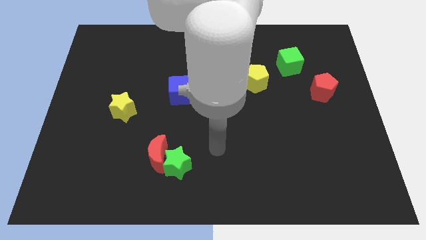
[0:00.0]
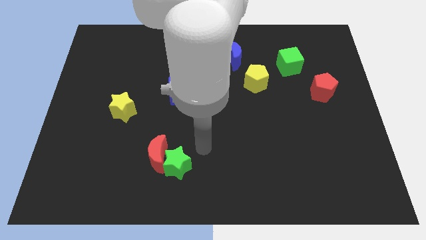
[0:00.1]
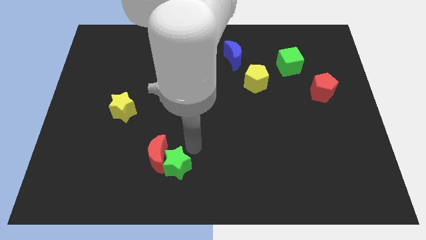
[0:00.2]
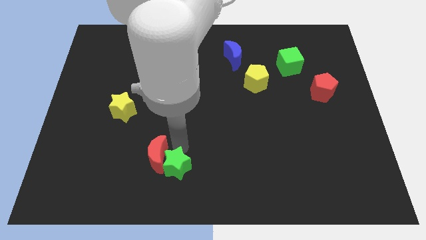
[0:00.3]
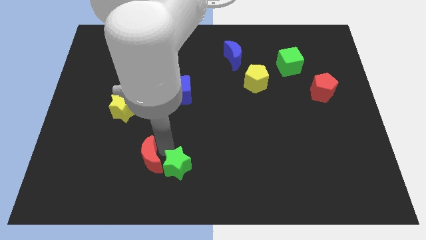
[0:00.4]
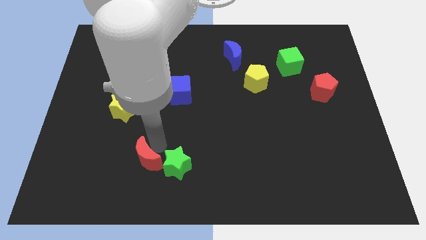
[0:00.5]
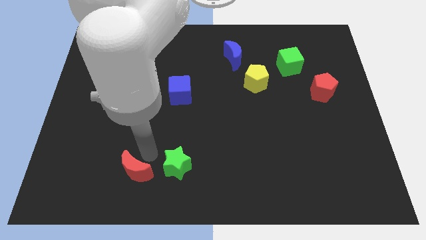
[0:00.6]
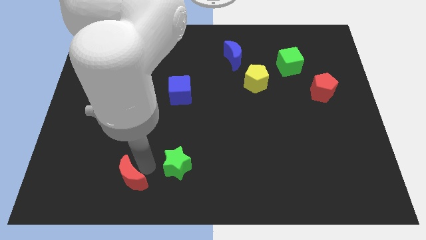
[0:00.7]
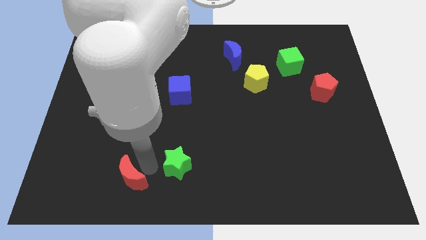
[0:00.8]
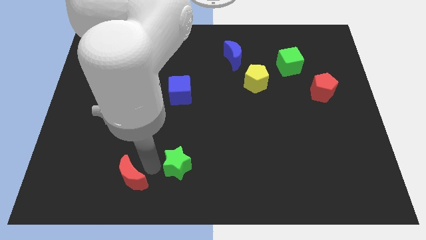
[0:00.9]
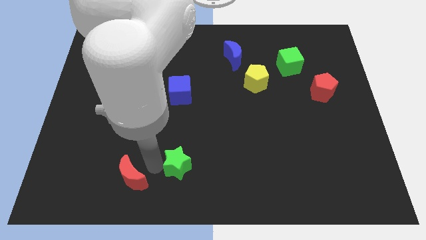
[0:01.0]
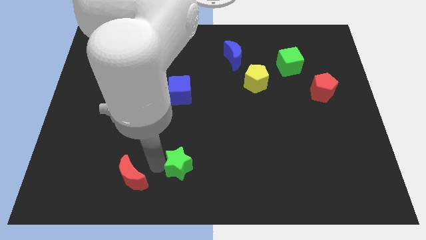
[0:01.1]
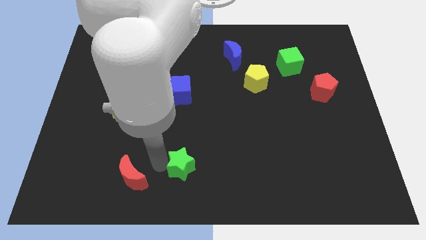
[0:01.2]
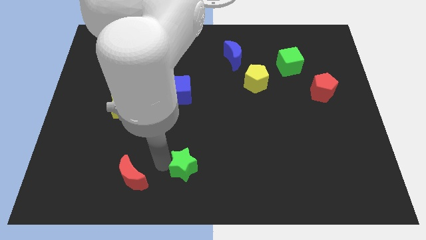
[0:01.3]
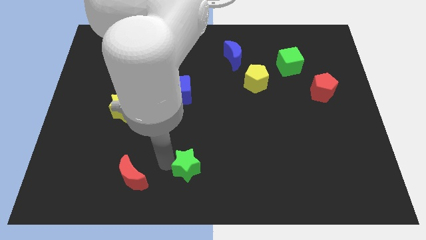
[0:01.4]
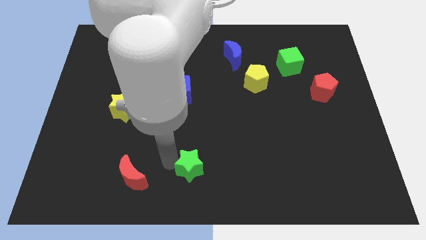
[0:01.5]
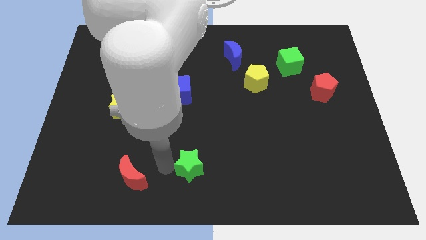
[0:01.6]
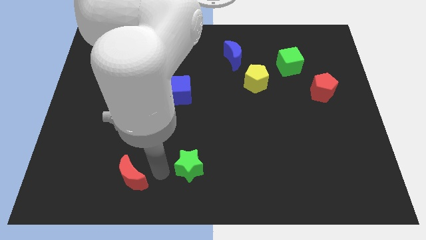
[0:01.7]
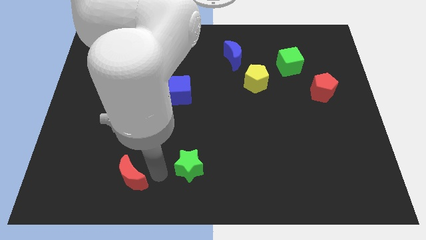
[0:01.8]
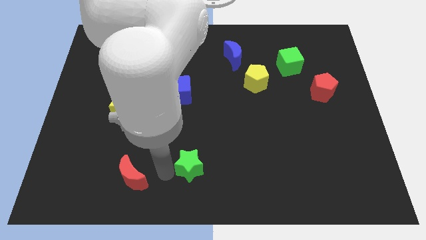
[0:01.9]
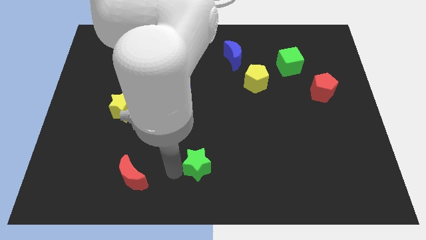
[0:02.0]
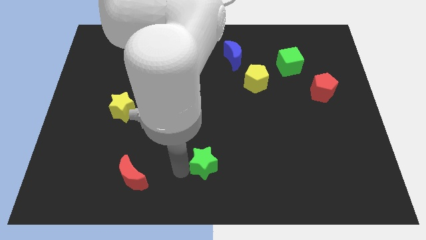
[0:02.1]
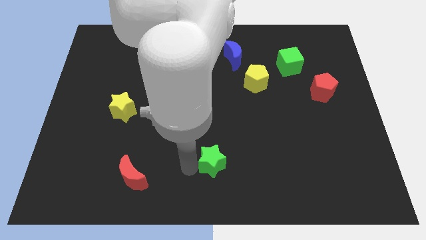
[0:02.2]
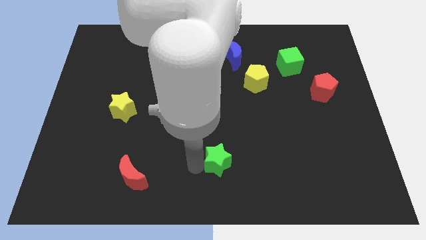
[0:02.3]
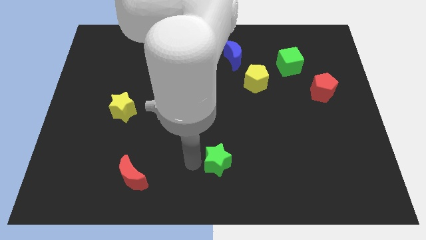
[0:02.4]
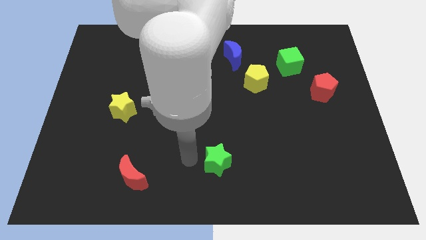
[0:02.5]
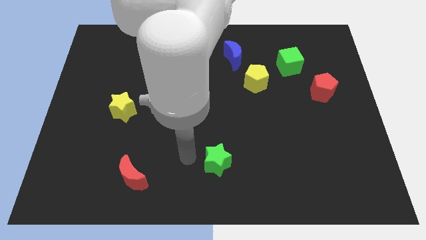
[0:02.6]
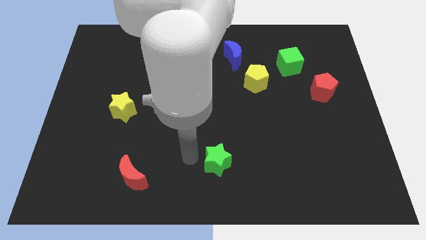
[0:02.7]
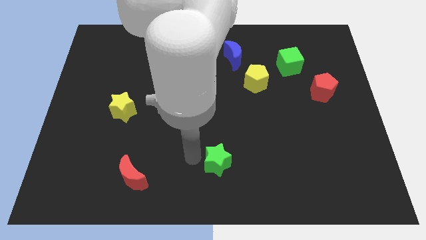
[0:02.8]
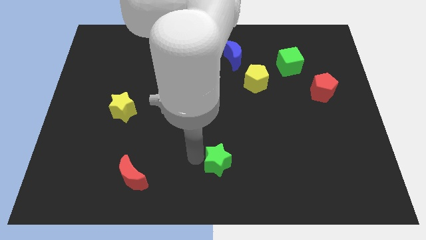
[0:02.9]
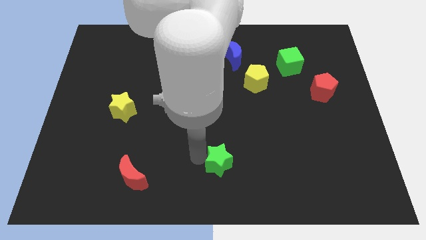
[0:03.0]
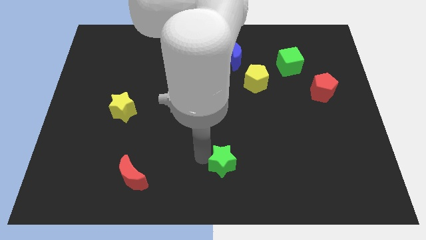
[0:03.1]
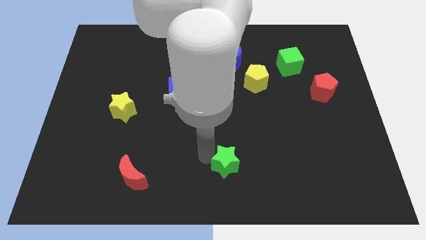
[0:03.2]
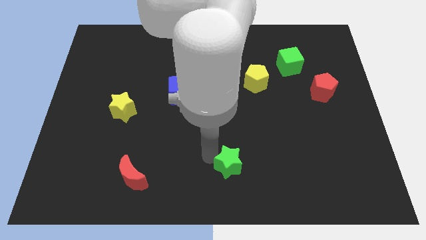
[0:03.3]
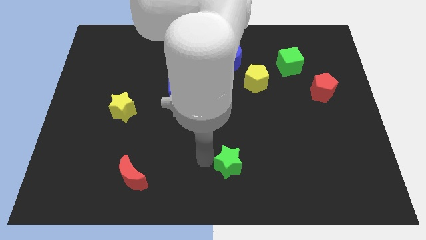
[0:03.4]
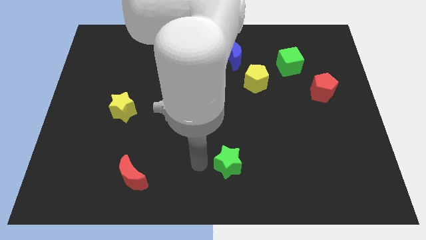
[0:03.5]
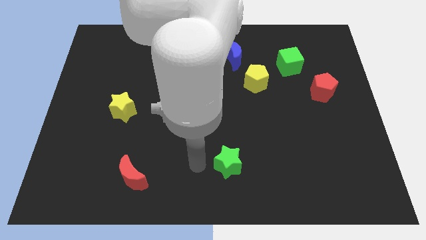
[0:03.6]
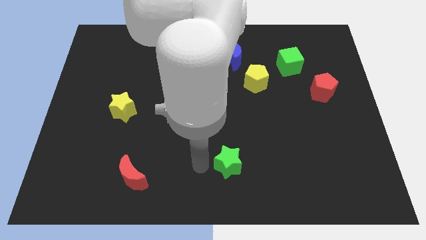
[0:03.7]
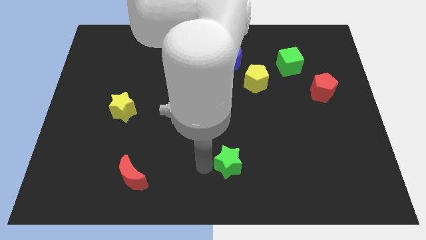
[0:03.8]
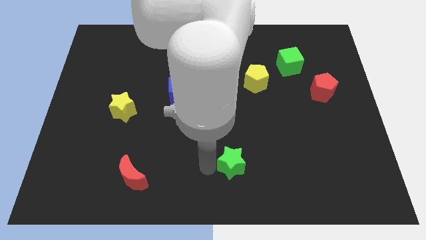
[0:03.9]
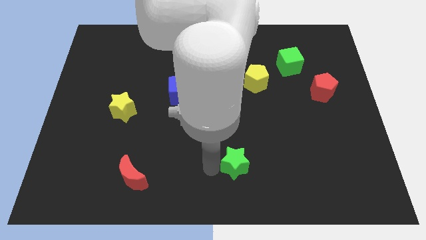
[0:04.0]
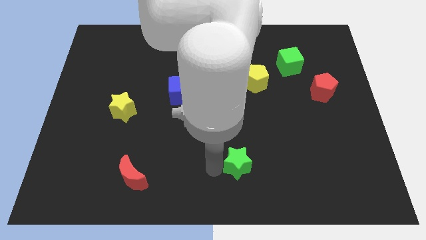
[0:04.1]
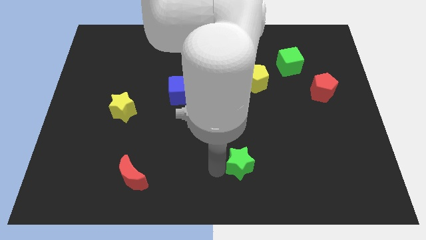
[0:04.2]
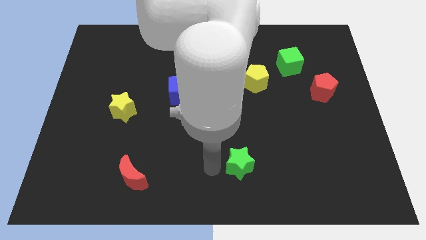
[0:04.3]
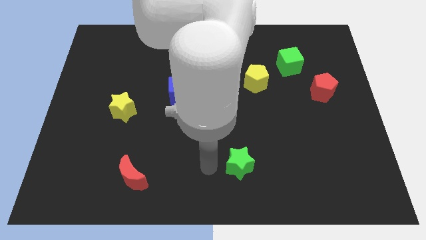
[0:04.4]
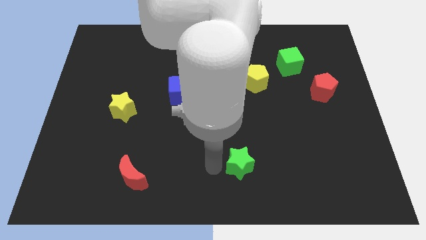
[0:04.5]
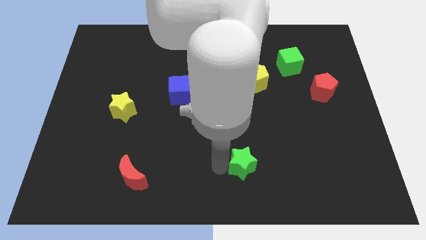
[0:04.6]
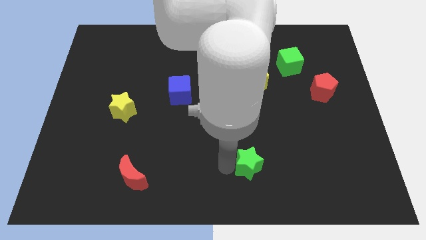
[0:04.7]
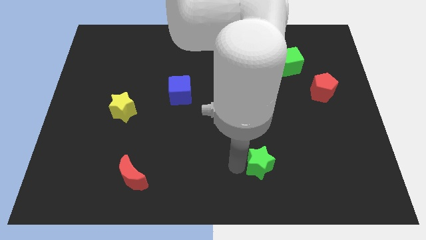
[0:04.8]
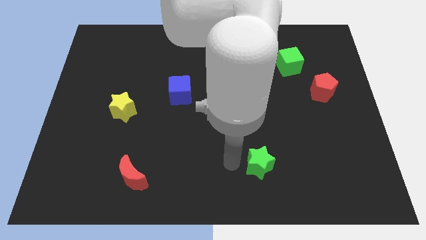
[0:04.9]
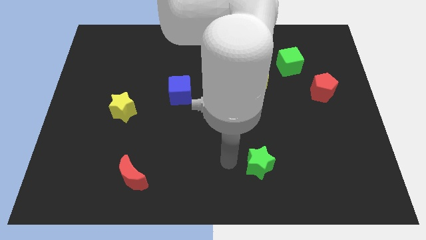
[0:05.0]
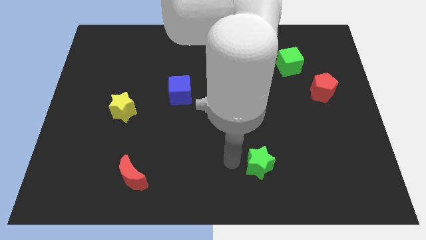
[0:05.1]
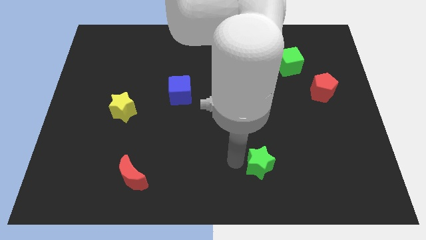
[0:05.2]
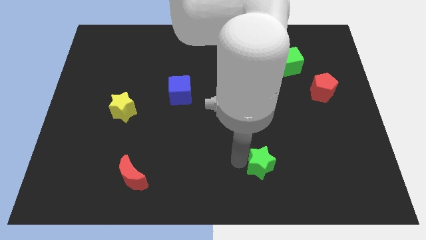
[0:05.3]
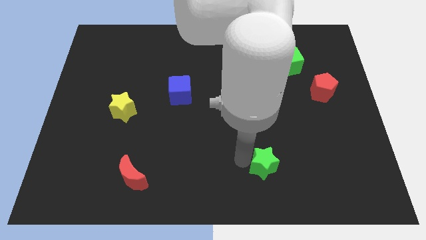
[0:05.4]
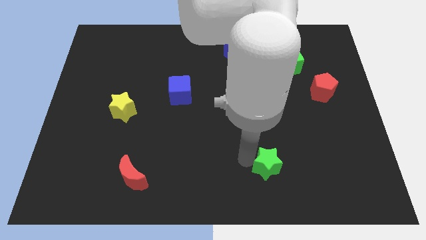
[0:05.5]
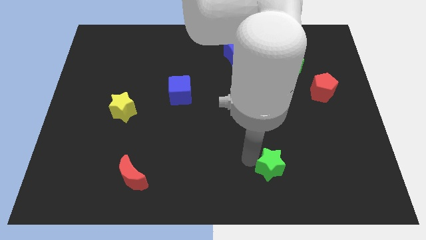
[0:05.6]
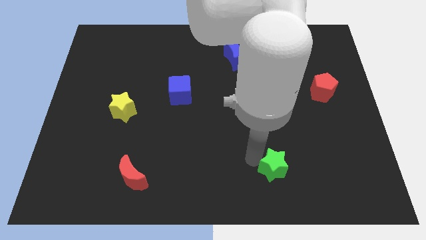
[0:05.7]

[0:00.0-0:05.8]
push the green star right

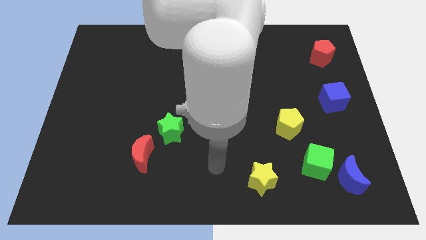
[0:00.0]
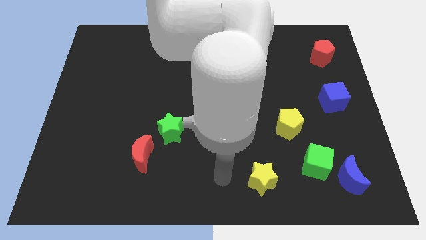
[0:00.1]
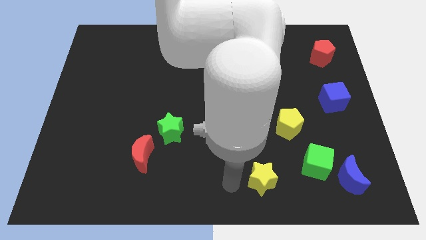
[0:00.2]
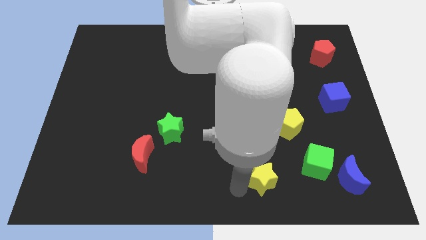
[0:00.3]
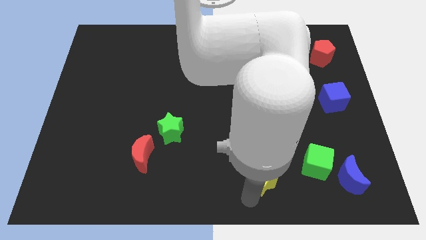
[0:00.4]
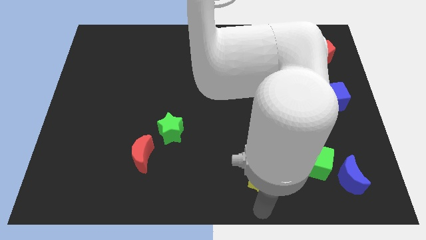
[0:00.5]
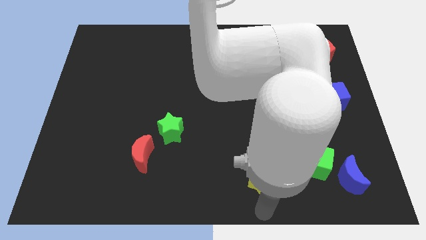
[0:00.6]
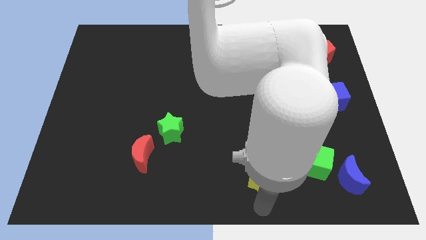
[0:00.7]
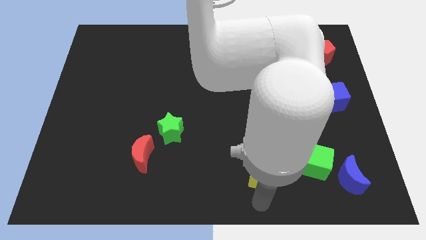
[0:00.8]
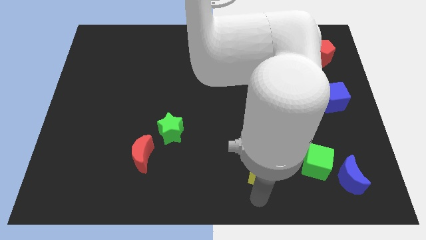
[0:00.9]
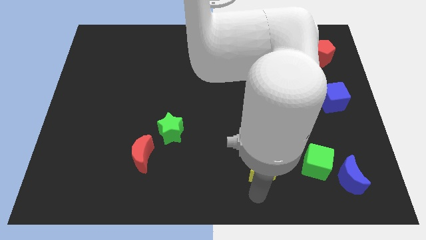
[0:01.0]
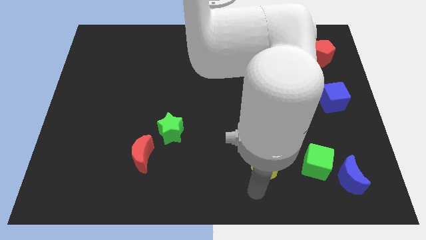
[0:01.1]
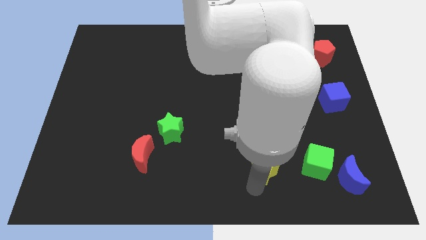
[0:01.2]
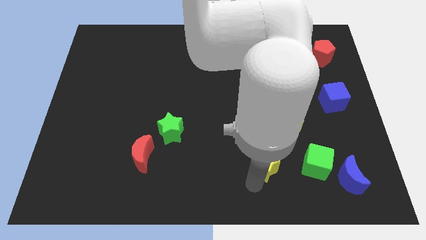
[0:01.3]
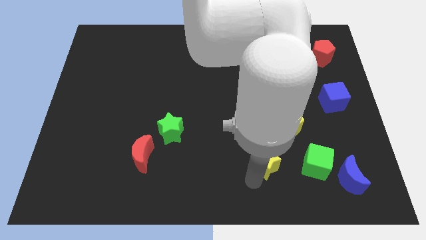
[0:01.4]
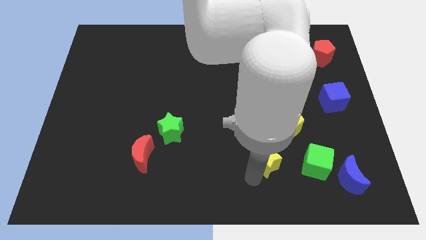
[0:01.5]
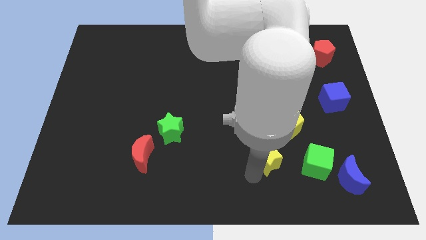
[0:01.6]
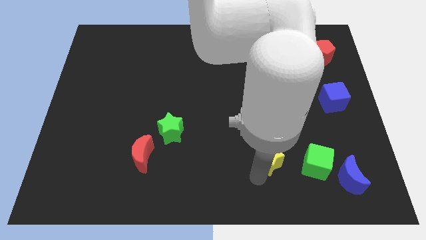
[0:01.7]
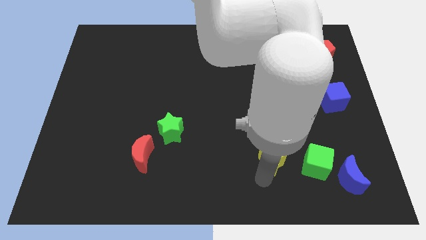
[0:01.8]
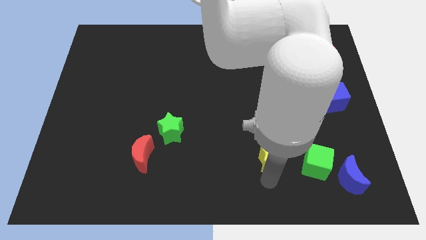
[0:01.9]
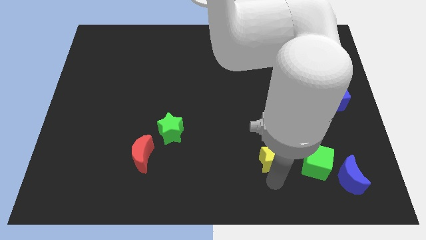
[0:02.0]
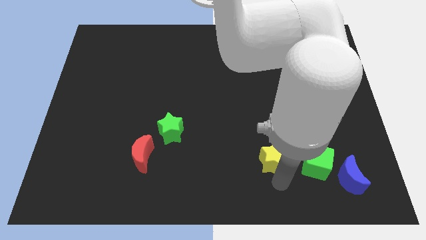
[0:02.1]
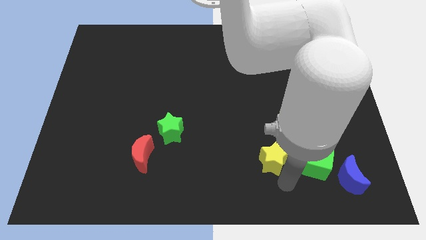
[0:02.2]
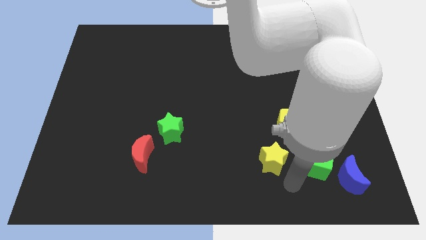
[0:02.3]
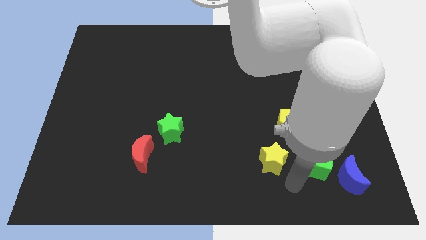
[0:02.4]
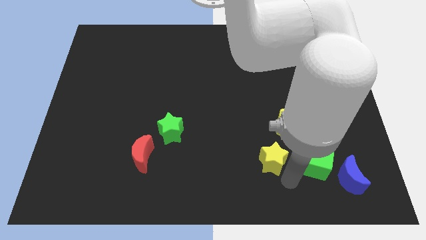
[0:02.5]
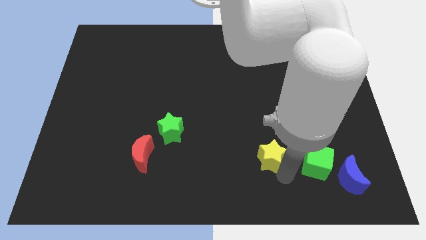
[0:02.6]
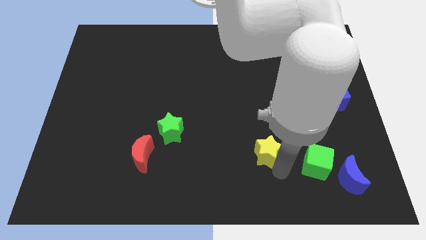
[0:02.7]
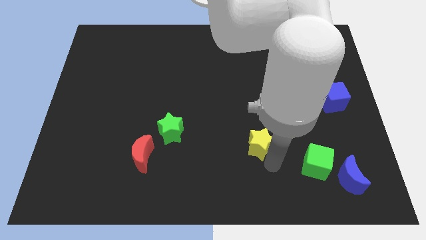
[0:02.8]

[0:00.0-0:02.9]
slightly slide the yellow star upwards
